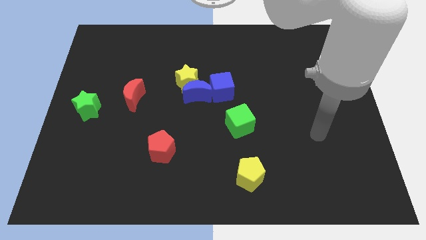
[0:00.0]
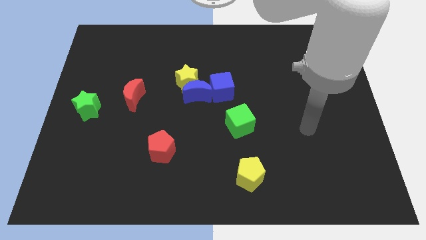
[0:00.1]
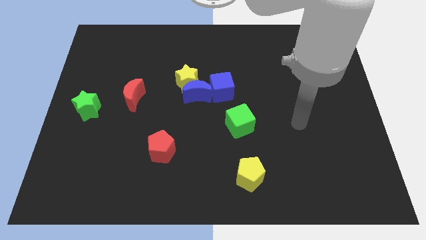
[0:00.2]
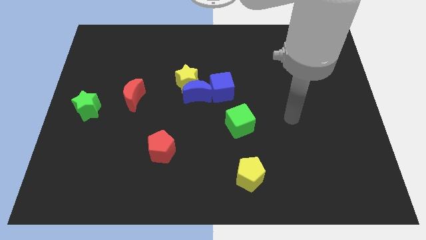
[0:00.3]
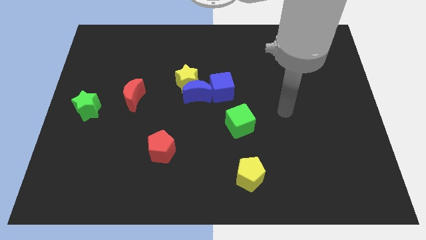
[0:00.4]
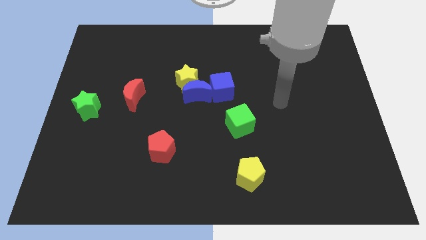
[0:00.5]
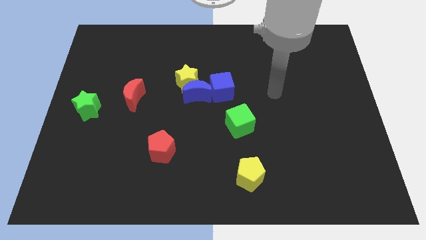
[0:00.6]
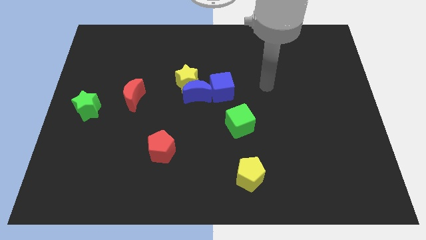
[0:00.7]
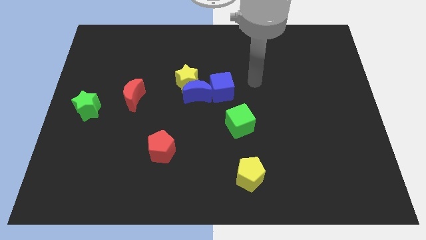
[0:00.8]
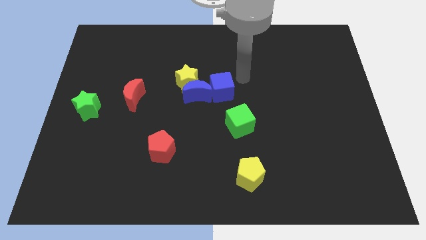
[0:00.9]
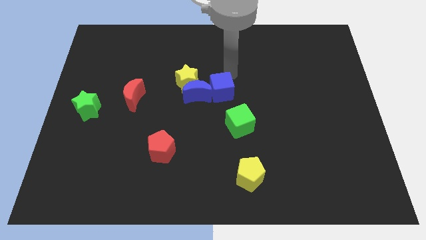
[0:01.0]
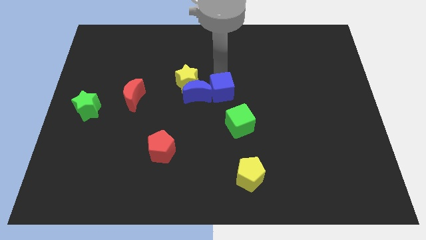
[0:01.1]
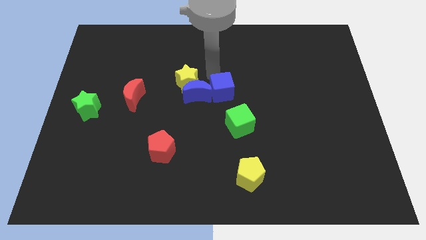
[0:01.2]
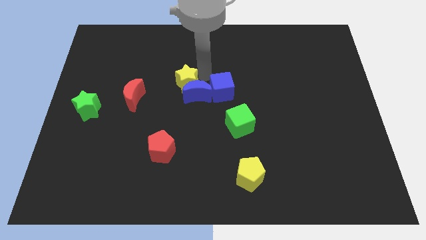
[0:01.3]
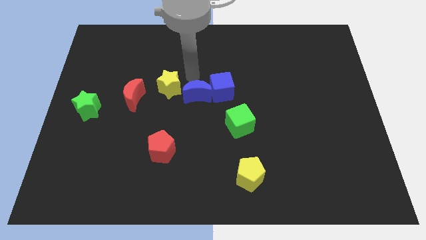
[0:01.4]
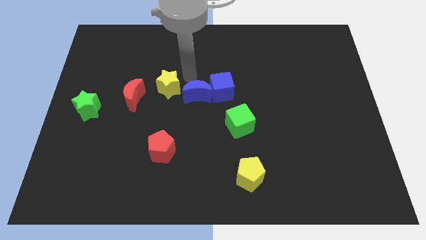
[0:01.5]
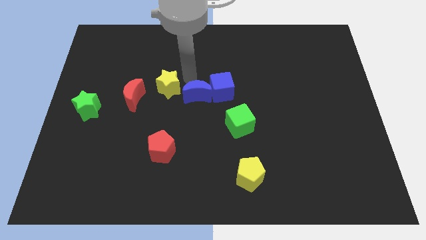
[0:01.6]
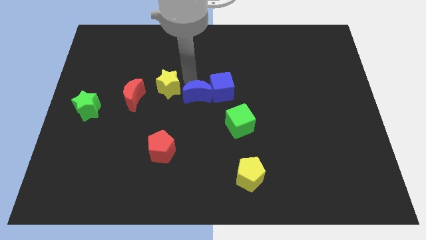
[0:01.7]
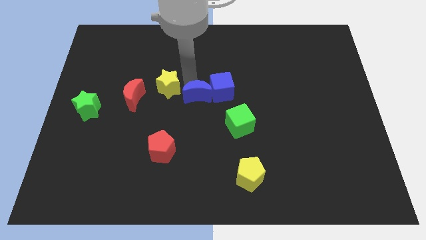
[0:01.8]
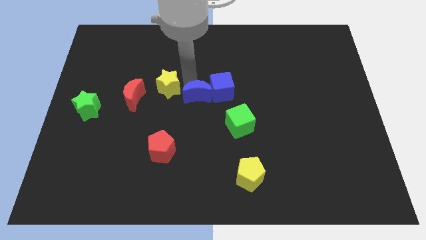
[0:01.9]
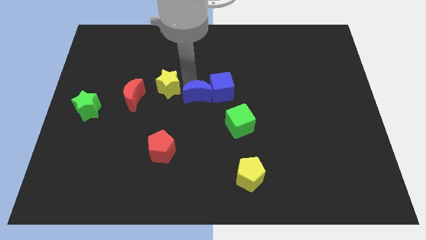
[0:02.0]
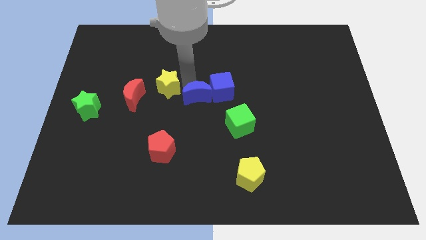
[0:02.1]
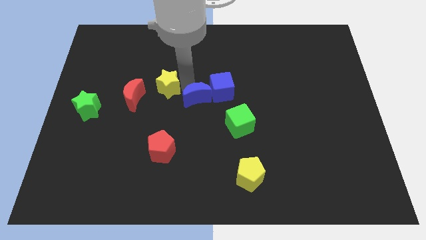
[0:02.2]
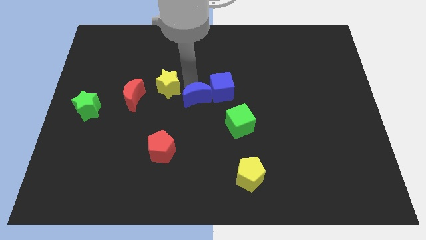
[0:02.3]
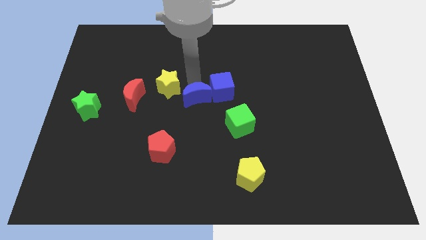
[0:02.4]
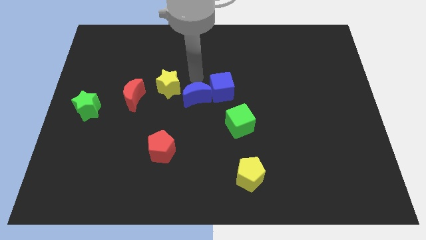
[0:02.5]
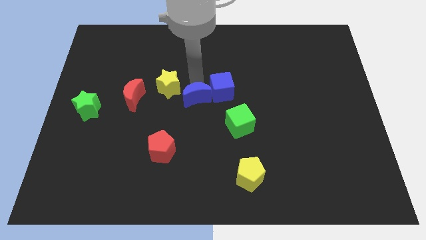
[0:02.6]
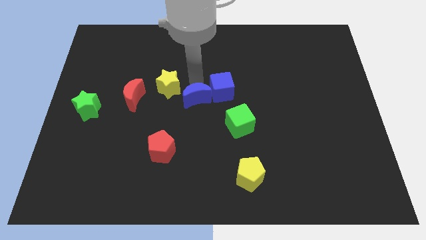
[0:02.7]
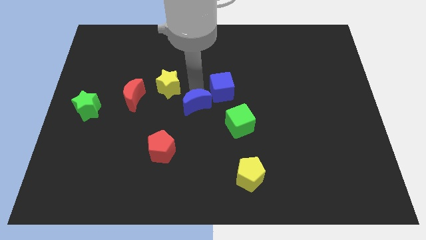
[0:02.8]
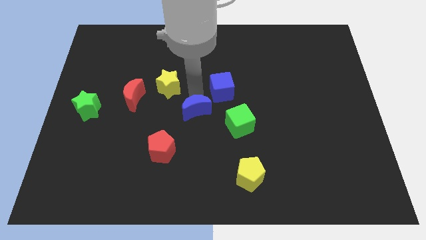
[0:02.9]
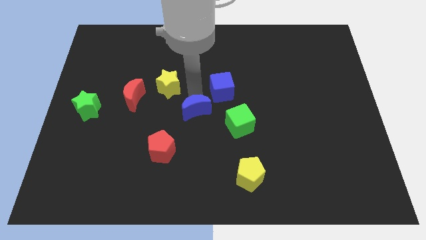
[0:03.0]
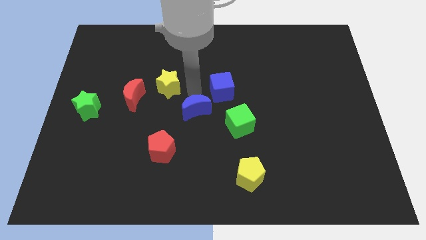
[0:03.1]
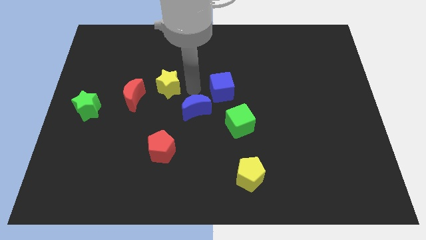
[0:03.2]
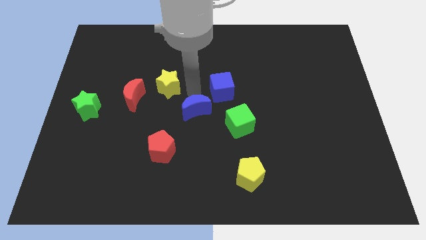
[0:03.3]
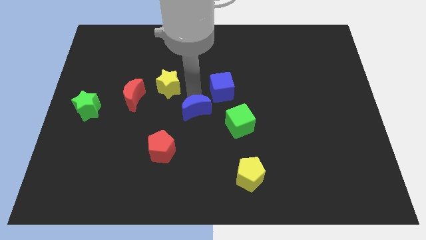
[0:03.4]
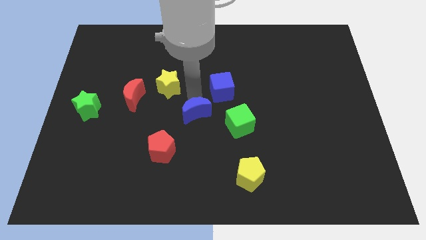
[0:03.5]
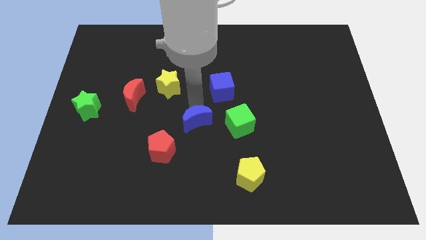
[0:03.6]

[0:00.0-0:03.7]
slightly push the blue moon downwards

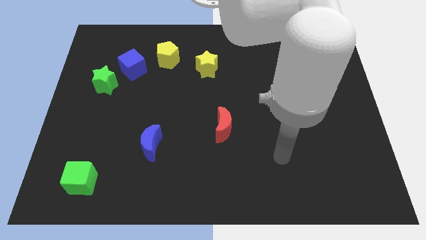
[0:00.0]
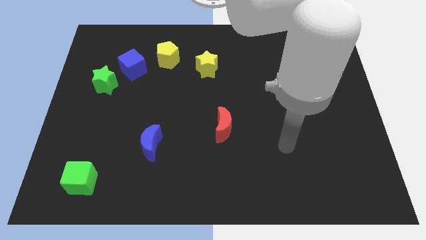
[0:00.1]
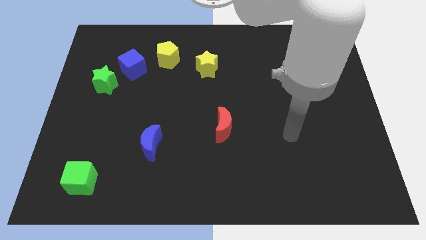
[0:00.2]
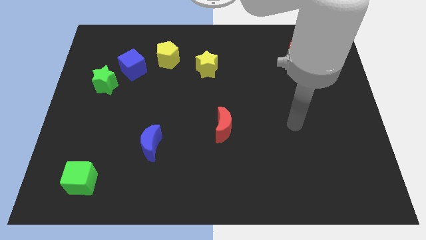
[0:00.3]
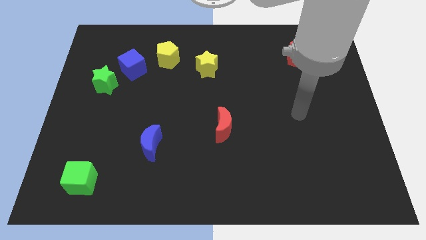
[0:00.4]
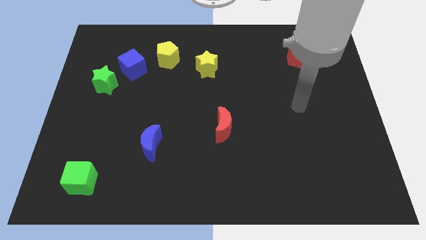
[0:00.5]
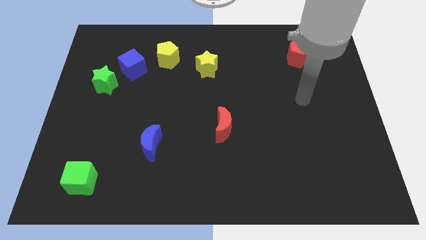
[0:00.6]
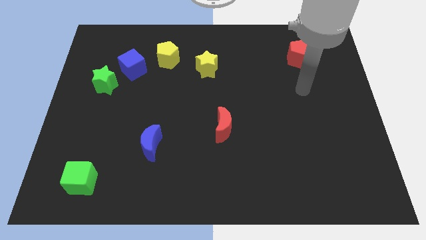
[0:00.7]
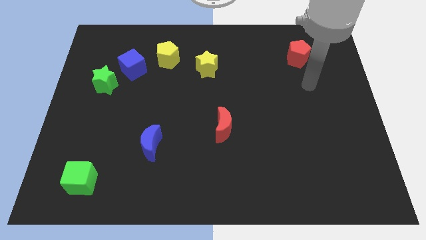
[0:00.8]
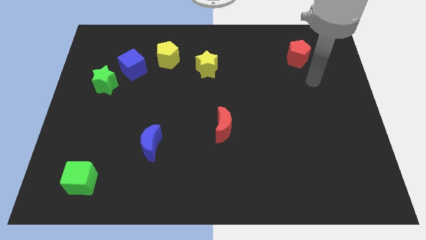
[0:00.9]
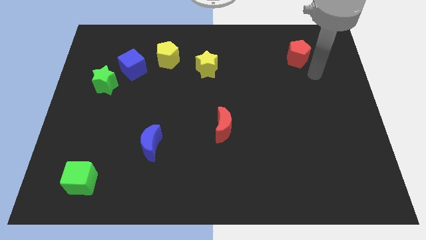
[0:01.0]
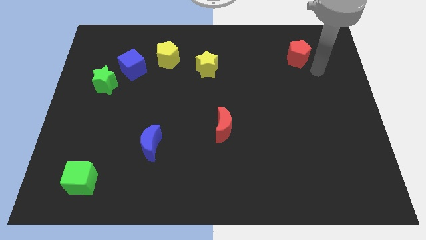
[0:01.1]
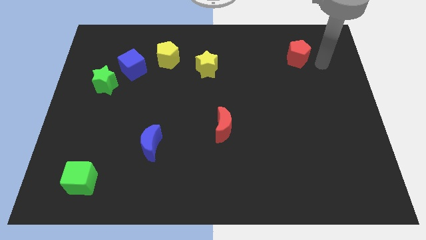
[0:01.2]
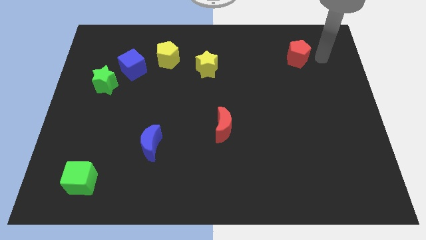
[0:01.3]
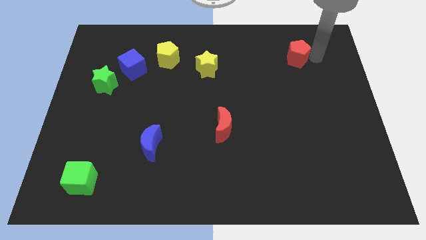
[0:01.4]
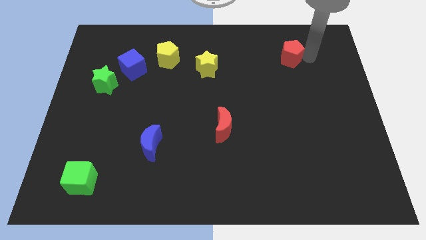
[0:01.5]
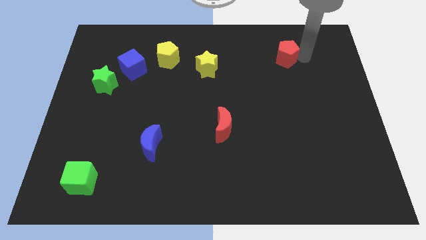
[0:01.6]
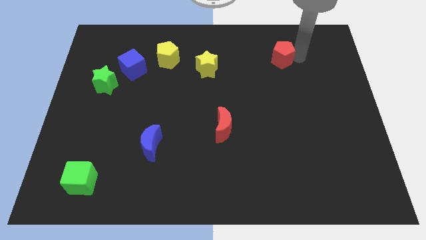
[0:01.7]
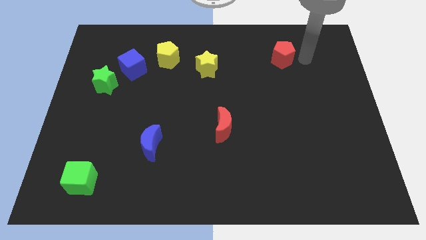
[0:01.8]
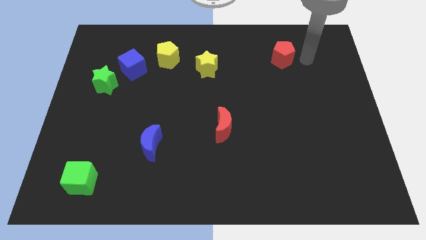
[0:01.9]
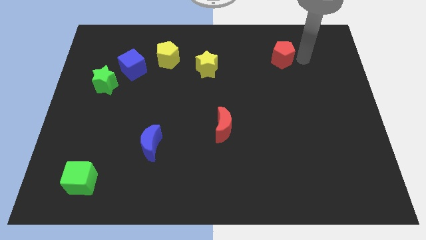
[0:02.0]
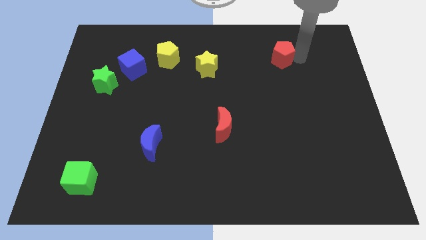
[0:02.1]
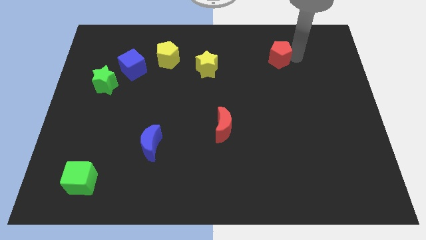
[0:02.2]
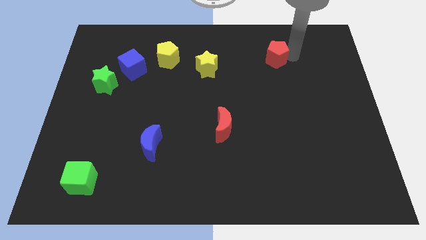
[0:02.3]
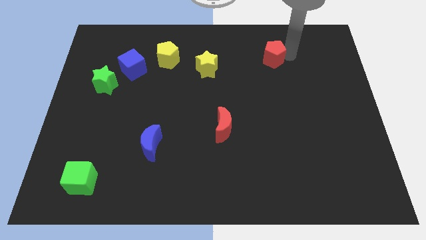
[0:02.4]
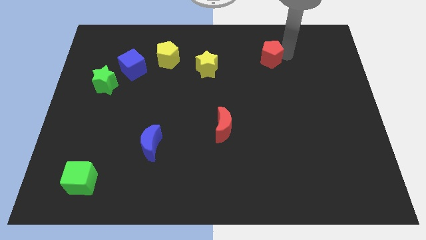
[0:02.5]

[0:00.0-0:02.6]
slide the red pentagon somewhat to the left

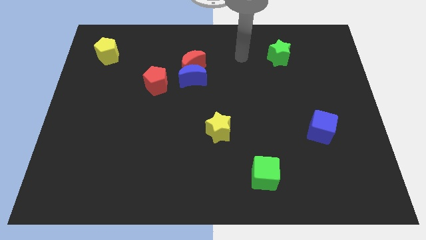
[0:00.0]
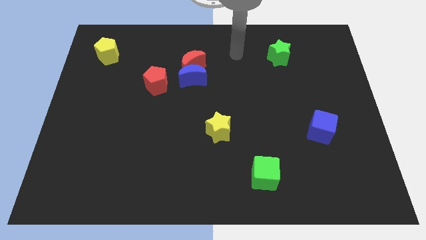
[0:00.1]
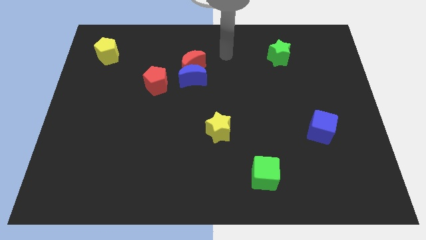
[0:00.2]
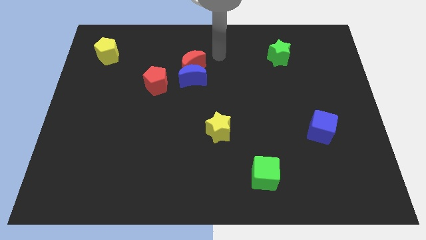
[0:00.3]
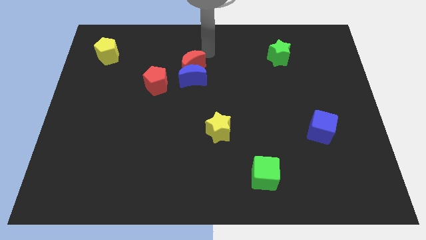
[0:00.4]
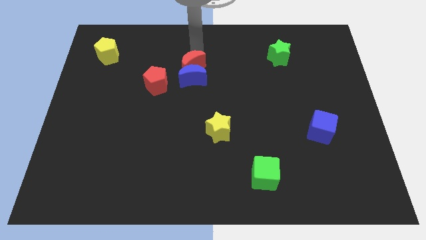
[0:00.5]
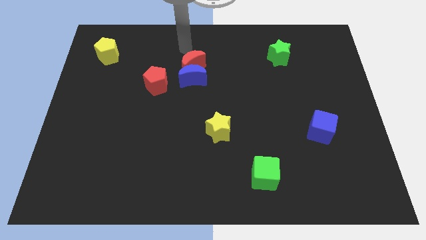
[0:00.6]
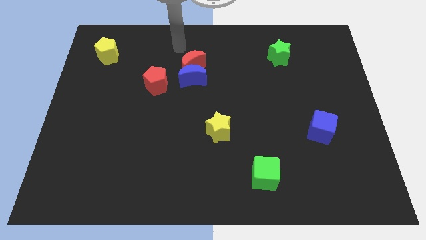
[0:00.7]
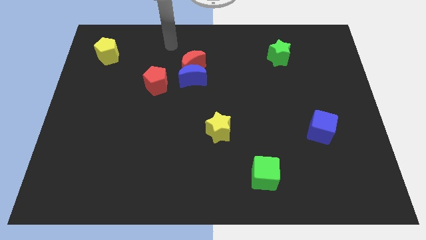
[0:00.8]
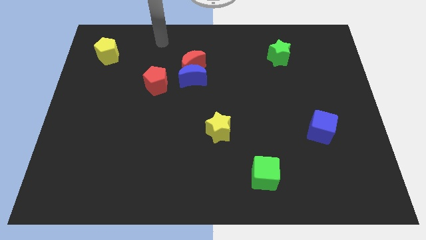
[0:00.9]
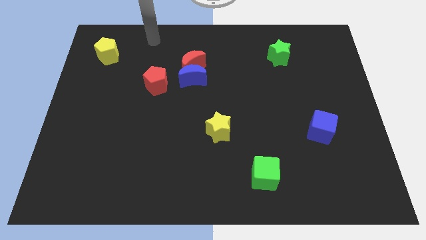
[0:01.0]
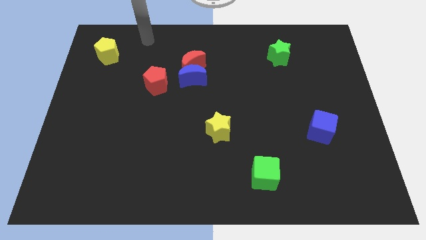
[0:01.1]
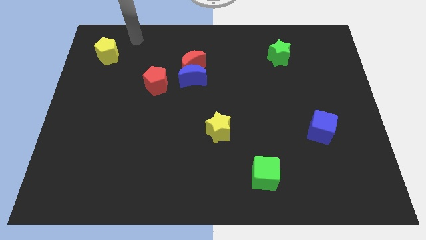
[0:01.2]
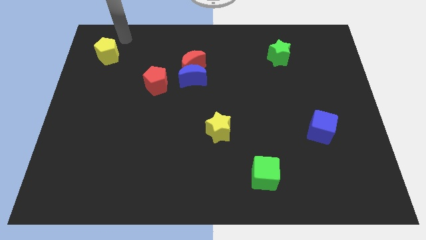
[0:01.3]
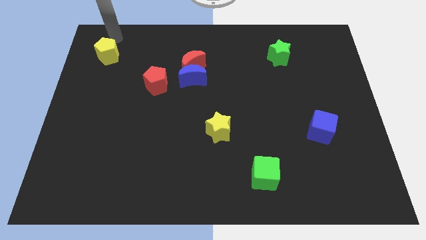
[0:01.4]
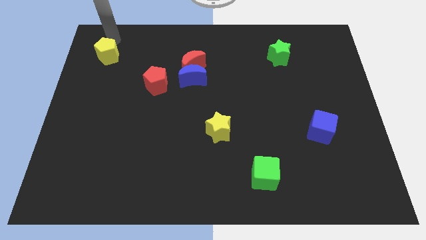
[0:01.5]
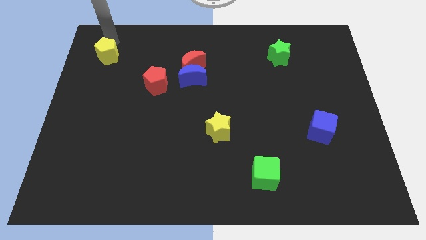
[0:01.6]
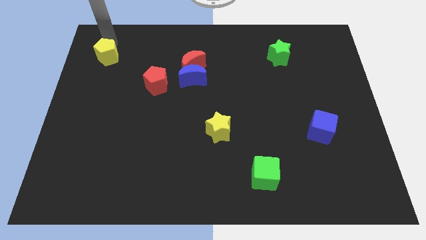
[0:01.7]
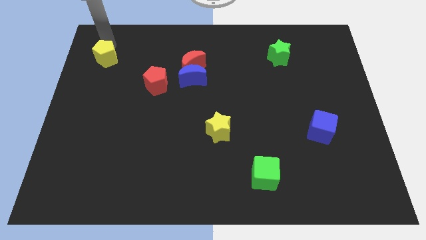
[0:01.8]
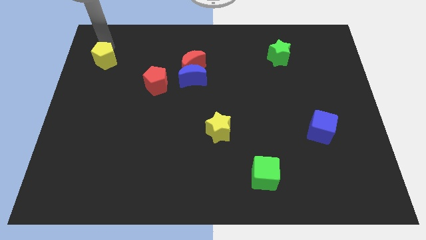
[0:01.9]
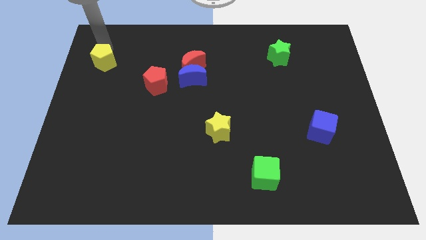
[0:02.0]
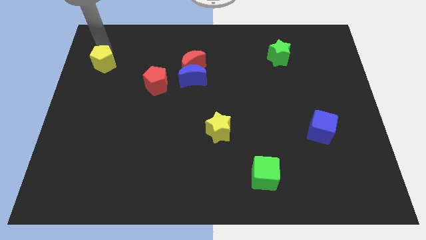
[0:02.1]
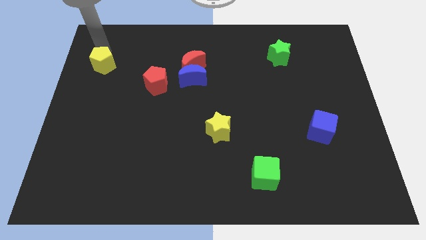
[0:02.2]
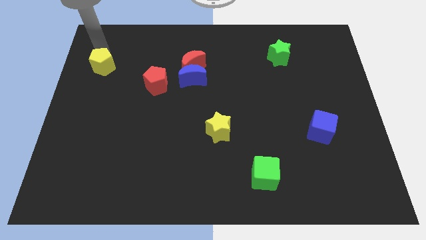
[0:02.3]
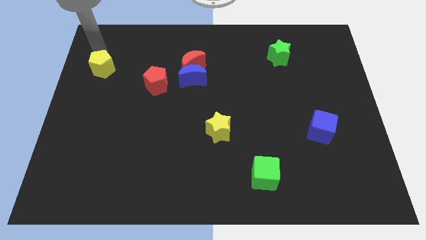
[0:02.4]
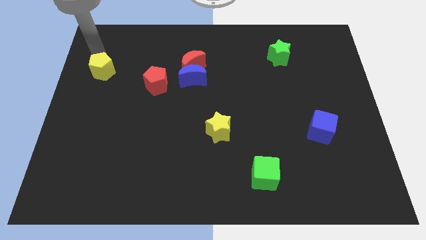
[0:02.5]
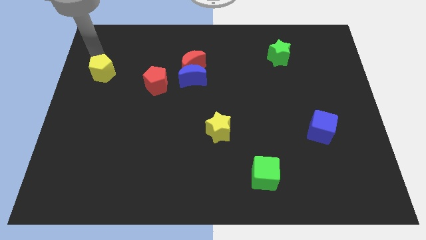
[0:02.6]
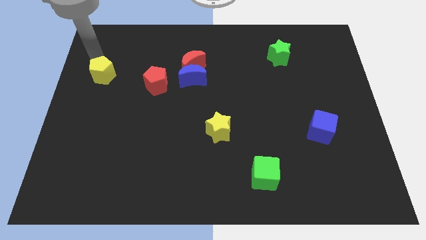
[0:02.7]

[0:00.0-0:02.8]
move the yellow pentagon a little downwards
